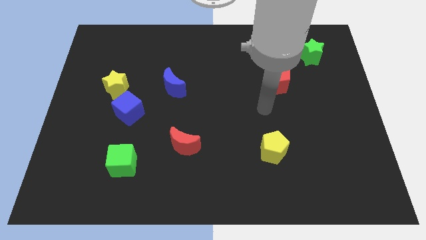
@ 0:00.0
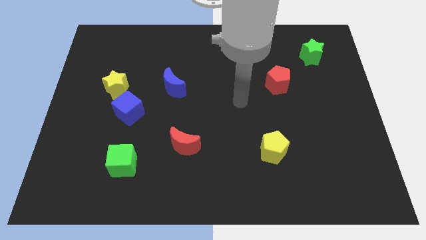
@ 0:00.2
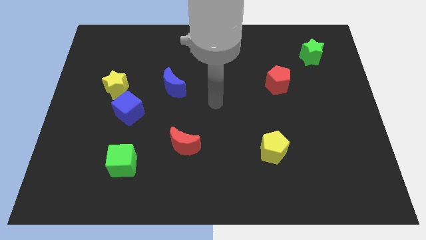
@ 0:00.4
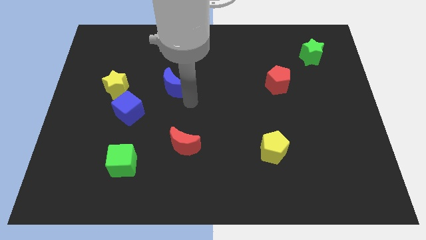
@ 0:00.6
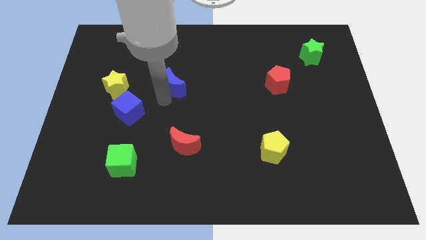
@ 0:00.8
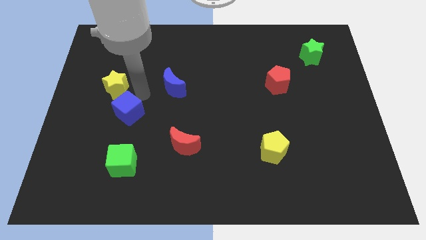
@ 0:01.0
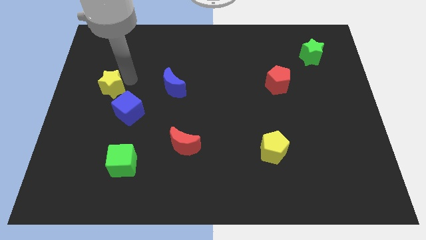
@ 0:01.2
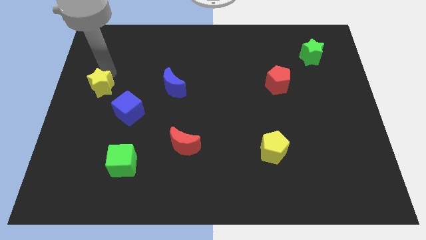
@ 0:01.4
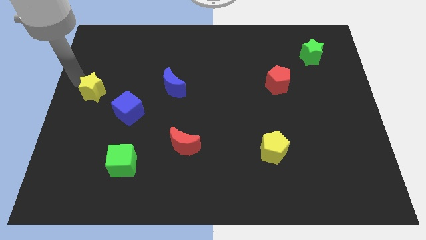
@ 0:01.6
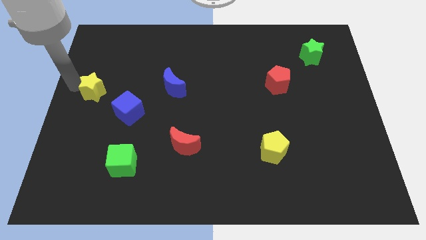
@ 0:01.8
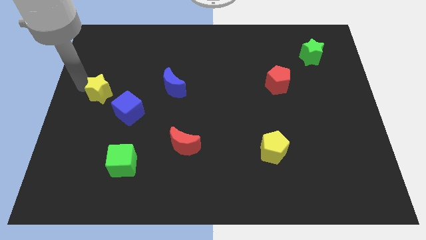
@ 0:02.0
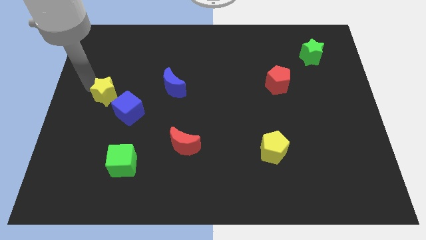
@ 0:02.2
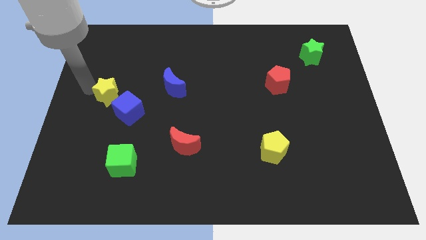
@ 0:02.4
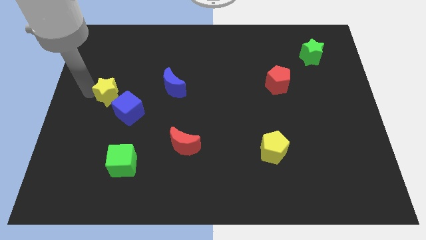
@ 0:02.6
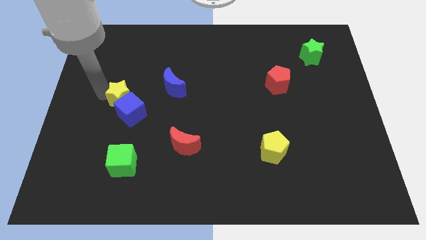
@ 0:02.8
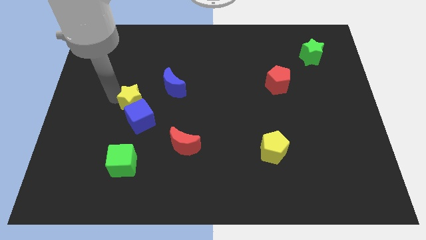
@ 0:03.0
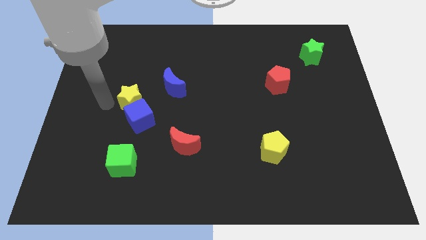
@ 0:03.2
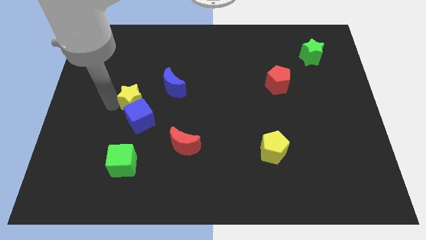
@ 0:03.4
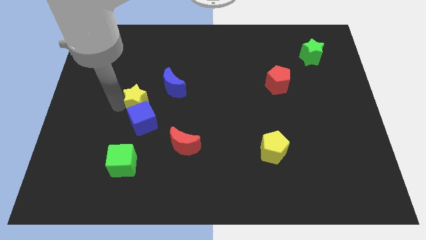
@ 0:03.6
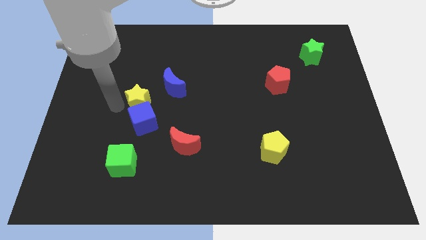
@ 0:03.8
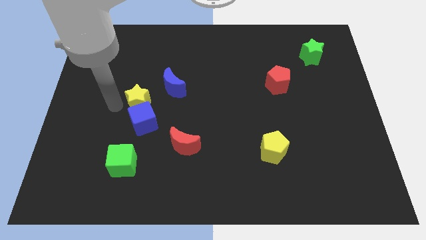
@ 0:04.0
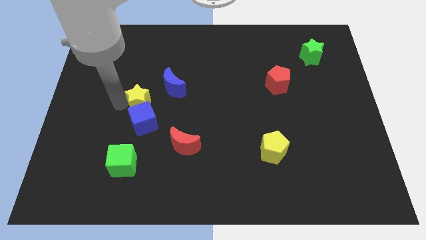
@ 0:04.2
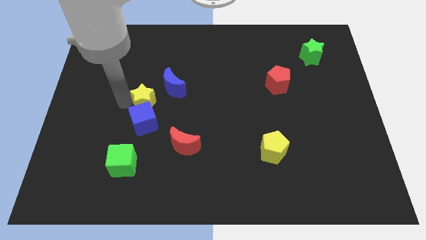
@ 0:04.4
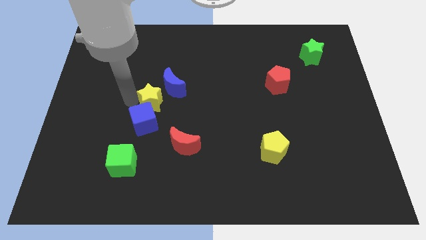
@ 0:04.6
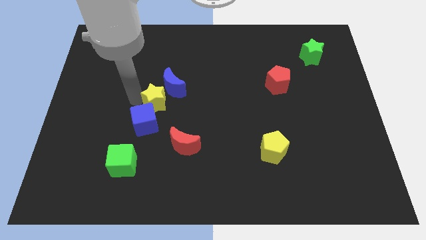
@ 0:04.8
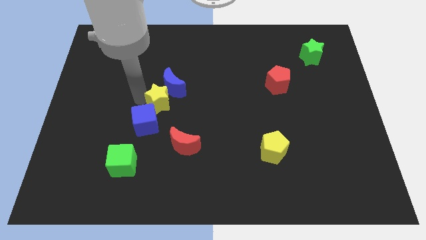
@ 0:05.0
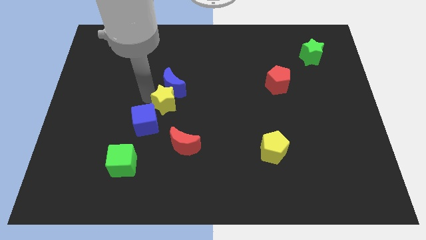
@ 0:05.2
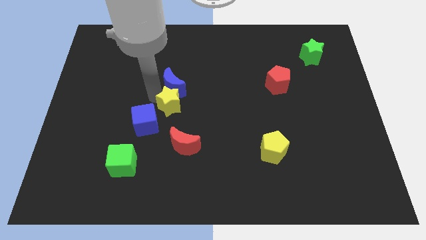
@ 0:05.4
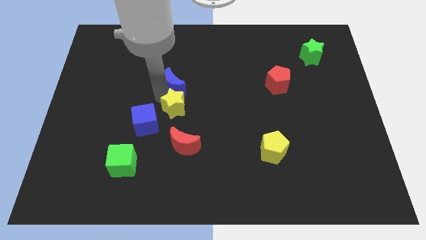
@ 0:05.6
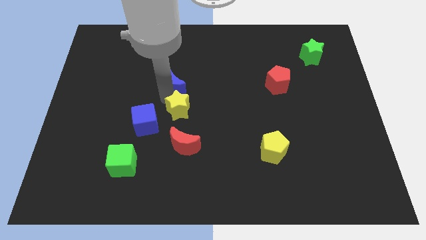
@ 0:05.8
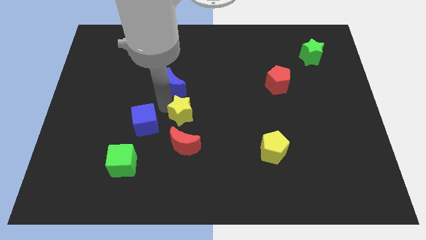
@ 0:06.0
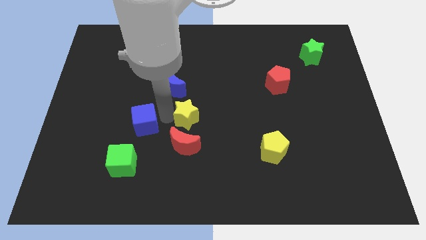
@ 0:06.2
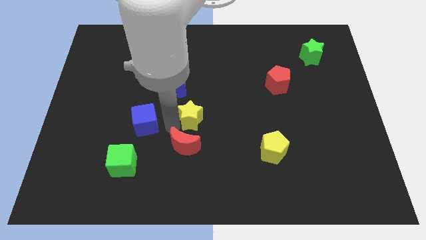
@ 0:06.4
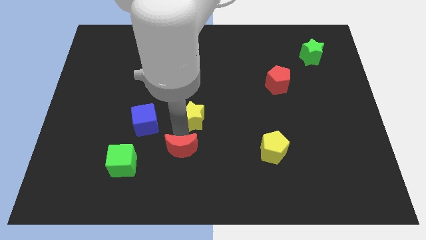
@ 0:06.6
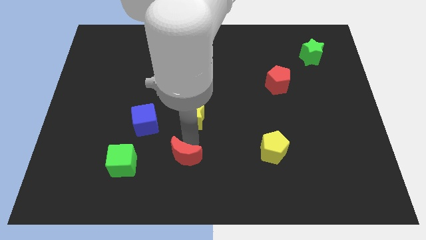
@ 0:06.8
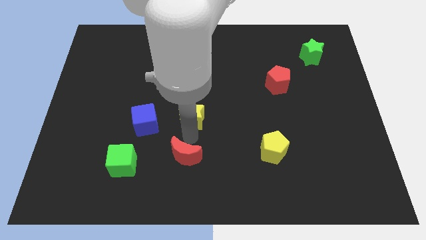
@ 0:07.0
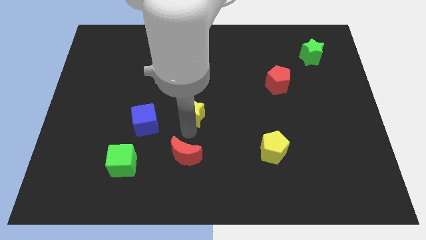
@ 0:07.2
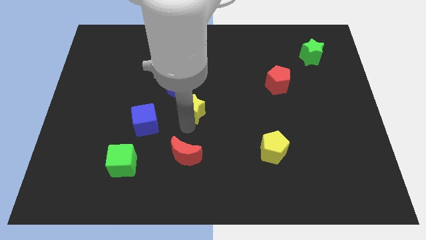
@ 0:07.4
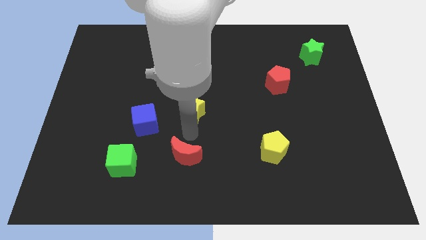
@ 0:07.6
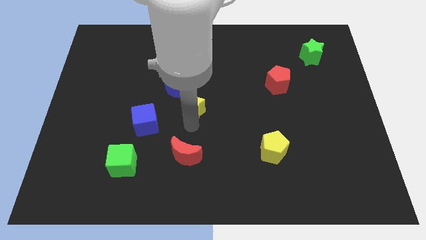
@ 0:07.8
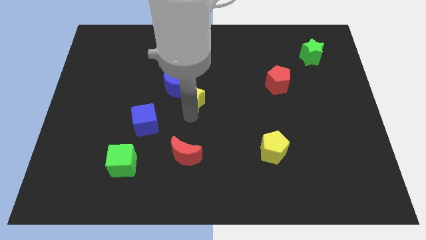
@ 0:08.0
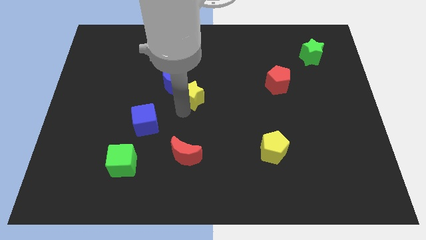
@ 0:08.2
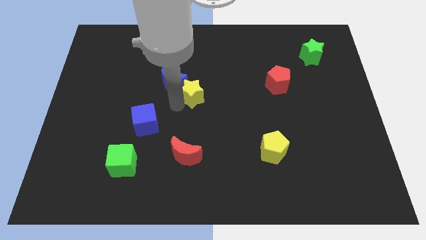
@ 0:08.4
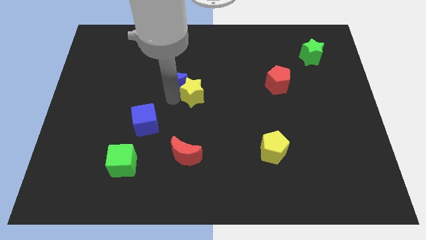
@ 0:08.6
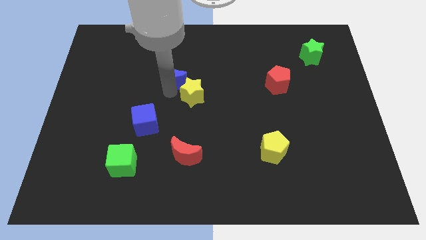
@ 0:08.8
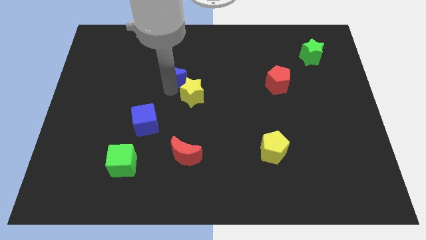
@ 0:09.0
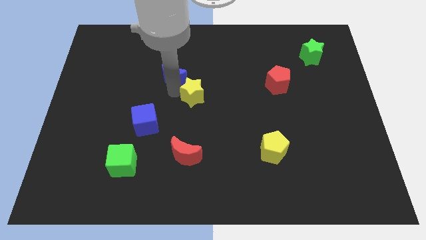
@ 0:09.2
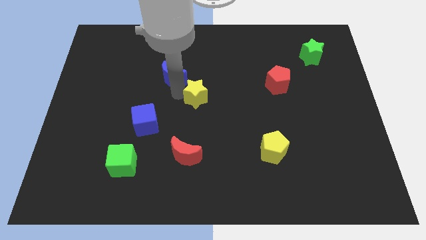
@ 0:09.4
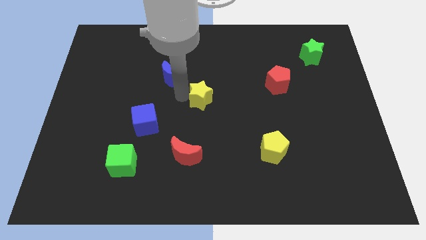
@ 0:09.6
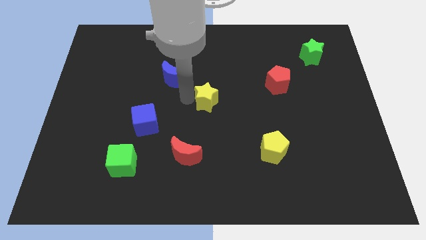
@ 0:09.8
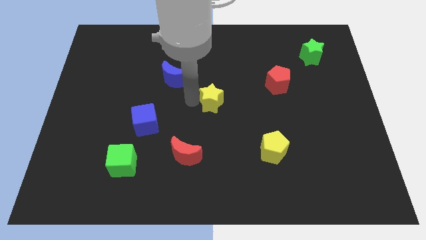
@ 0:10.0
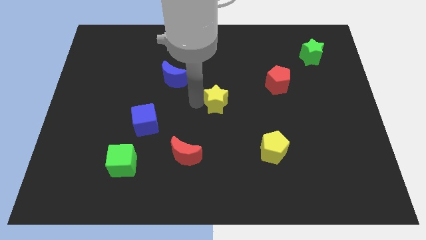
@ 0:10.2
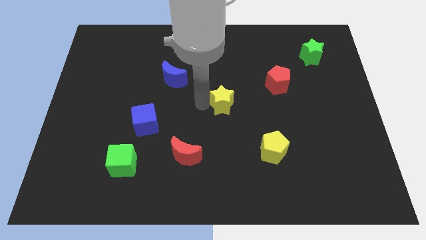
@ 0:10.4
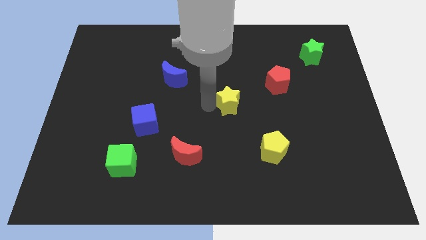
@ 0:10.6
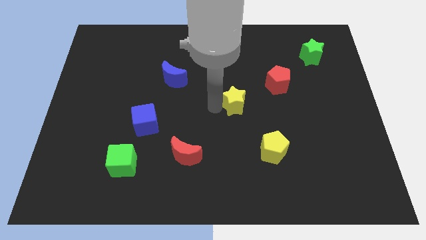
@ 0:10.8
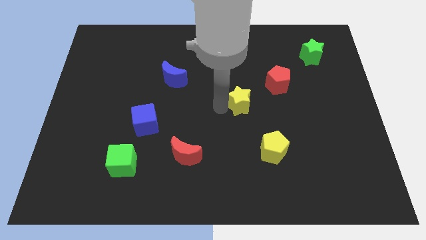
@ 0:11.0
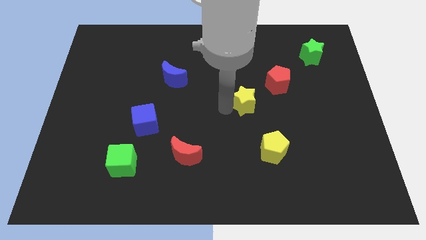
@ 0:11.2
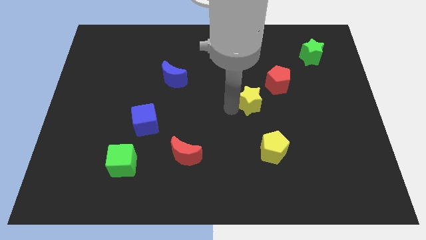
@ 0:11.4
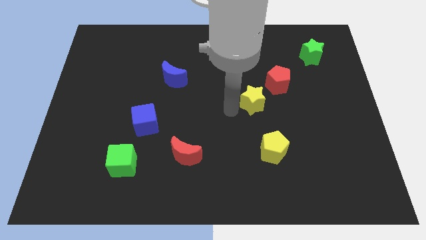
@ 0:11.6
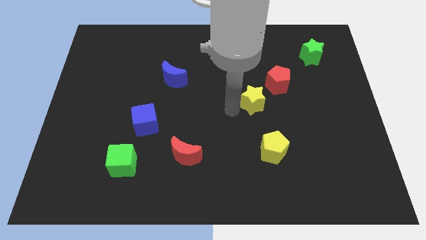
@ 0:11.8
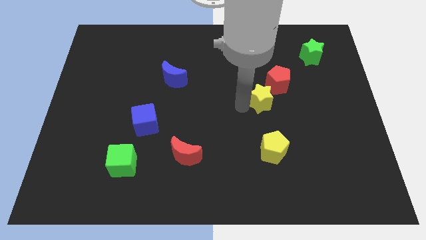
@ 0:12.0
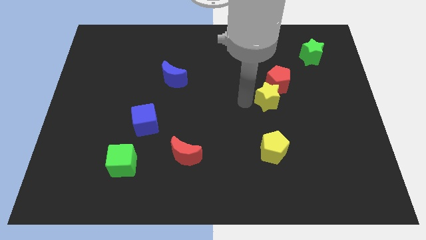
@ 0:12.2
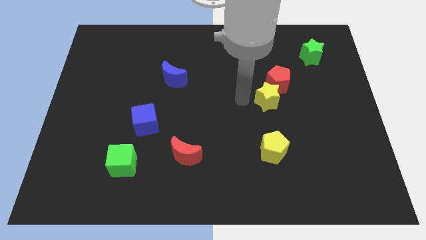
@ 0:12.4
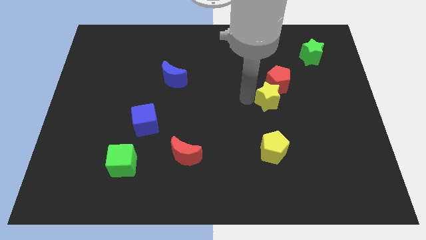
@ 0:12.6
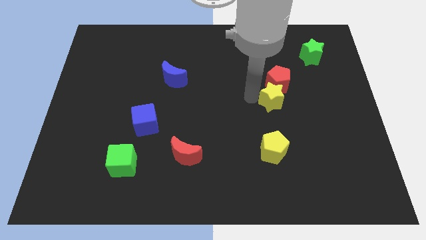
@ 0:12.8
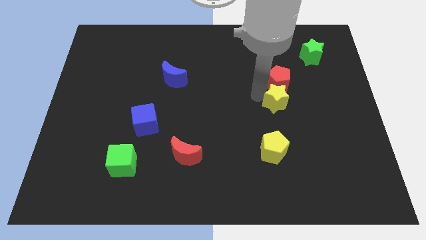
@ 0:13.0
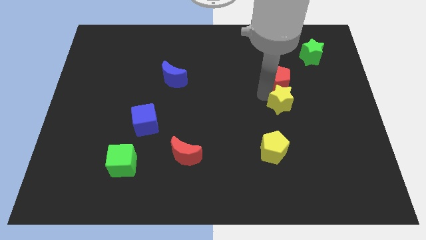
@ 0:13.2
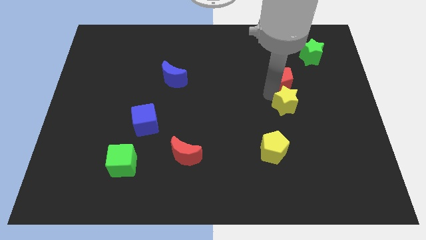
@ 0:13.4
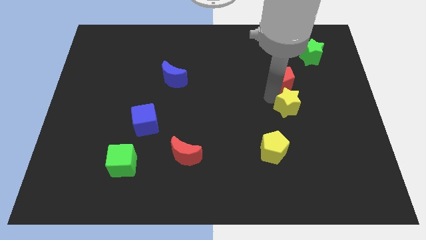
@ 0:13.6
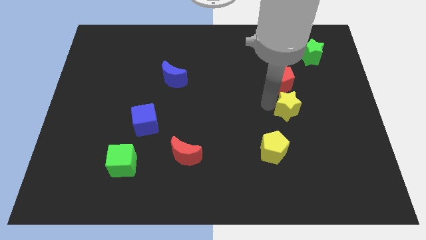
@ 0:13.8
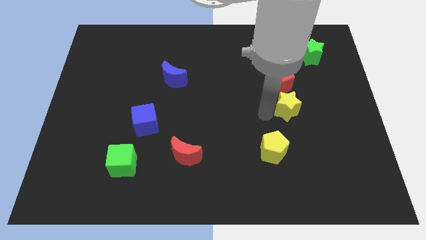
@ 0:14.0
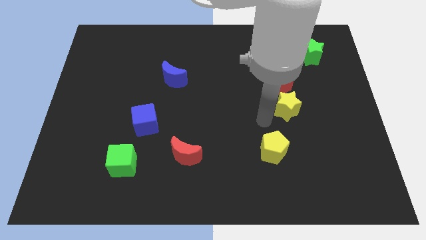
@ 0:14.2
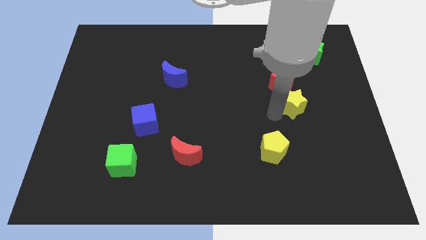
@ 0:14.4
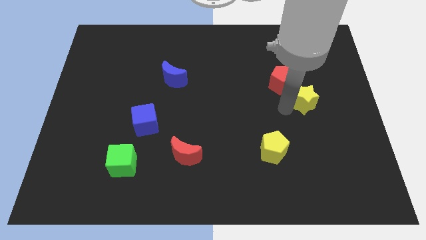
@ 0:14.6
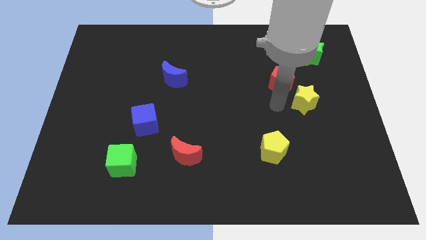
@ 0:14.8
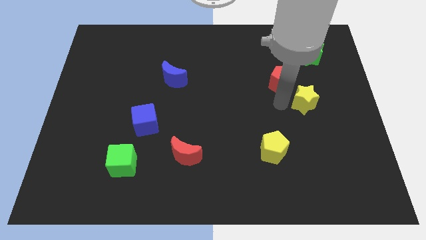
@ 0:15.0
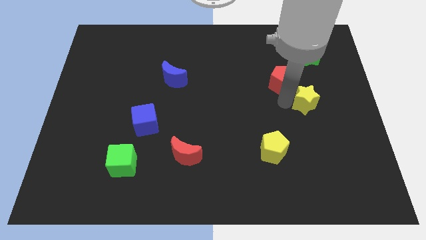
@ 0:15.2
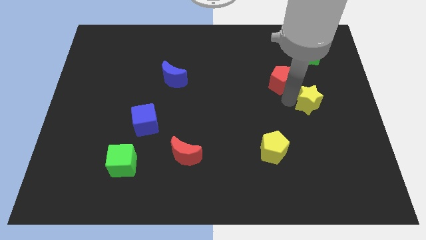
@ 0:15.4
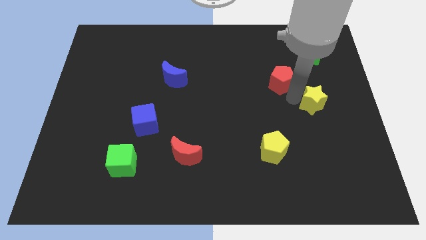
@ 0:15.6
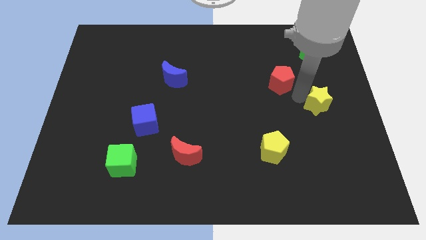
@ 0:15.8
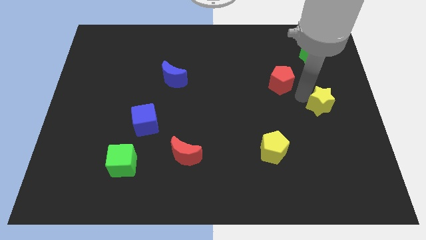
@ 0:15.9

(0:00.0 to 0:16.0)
put the yellow star to the center right

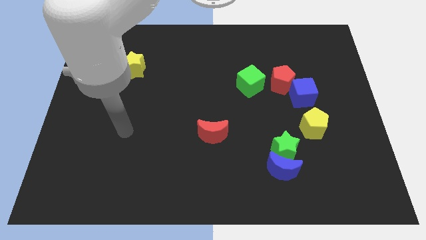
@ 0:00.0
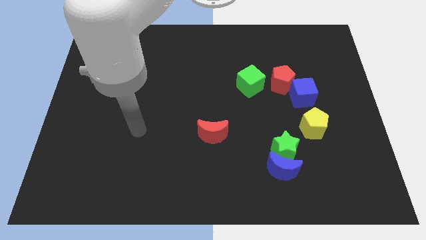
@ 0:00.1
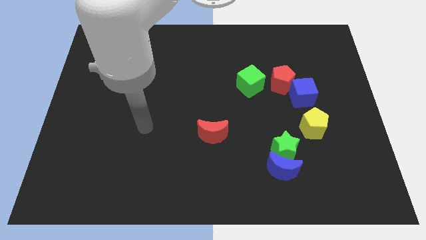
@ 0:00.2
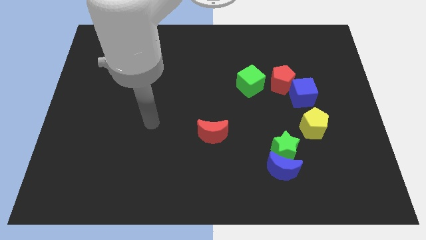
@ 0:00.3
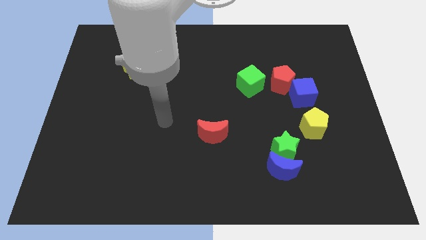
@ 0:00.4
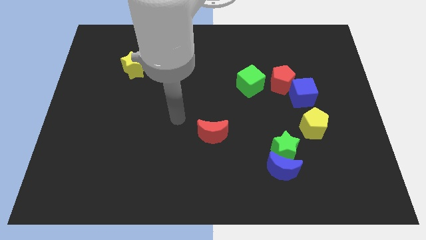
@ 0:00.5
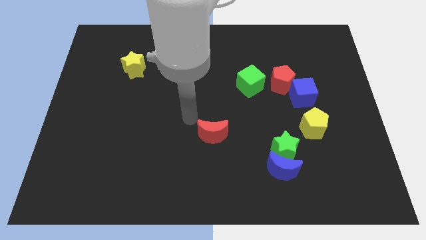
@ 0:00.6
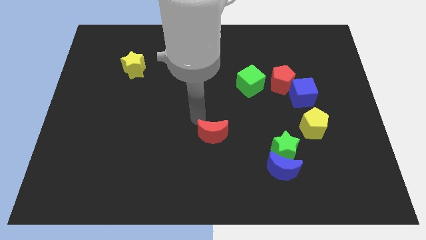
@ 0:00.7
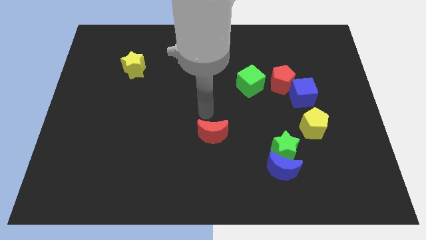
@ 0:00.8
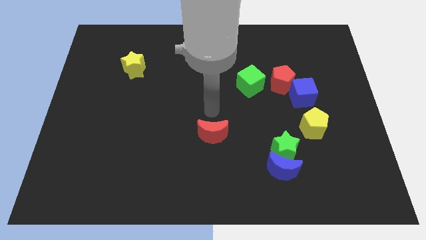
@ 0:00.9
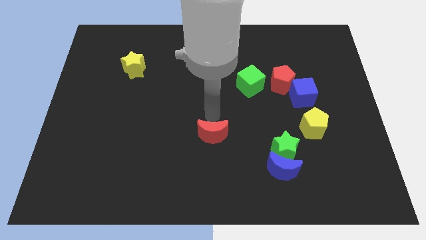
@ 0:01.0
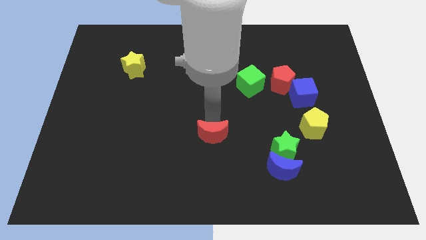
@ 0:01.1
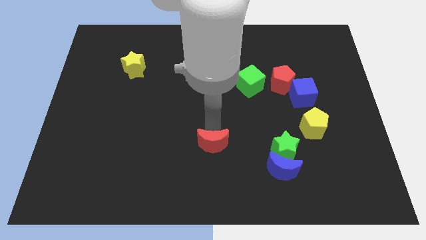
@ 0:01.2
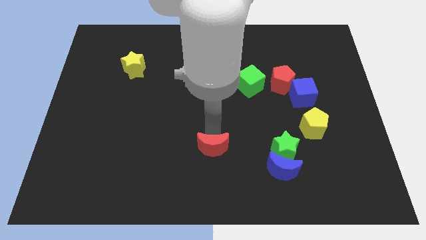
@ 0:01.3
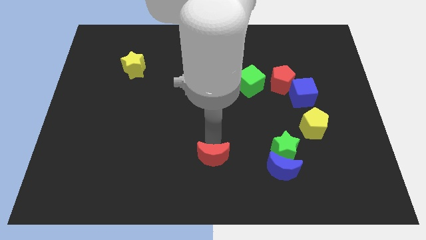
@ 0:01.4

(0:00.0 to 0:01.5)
put the red moon to the bottom side
